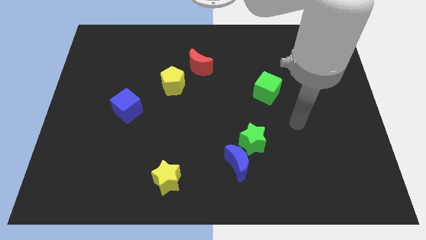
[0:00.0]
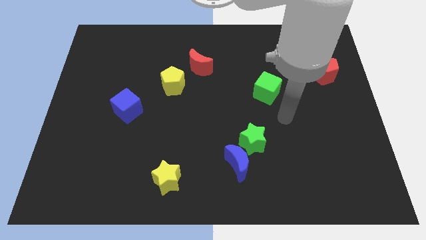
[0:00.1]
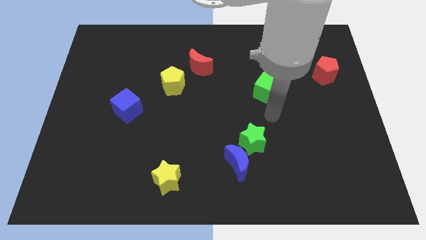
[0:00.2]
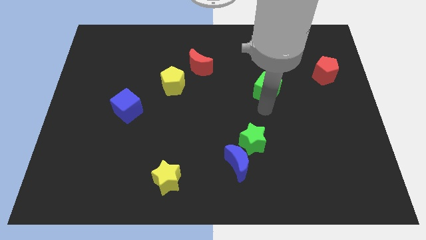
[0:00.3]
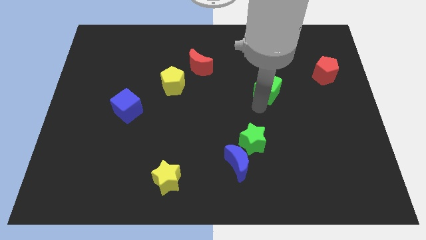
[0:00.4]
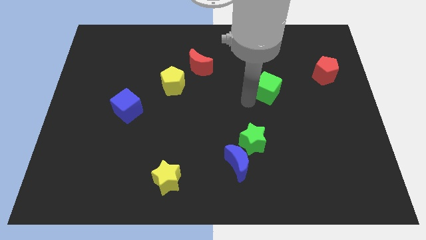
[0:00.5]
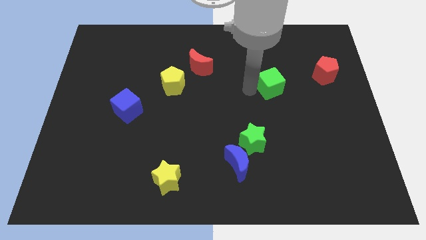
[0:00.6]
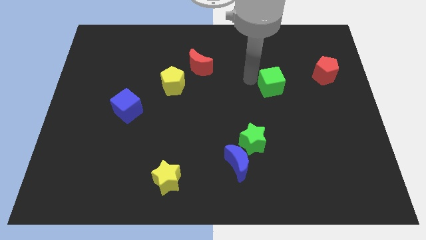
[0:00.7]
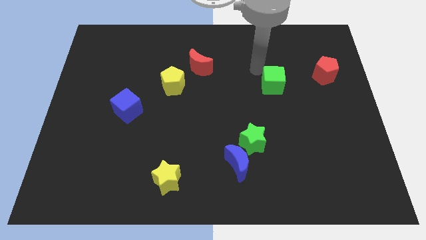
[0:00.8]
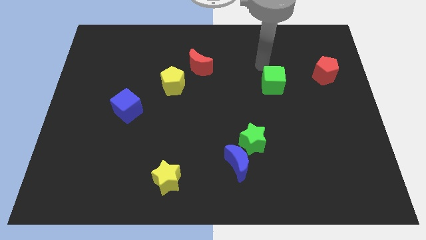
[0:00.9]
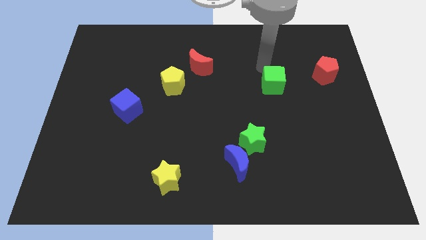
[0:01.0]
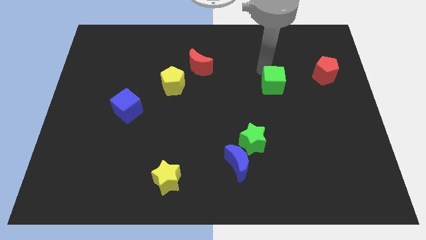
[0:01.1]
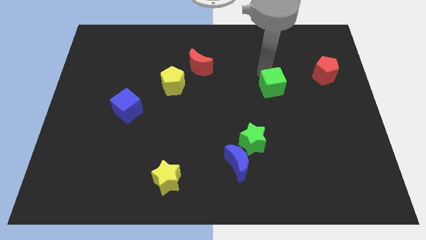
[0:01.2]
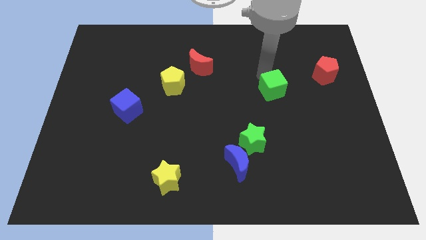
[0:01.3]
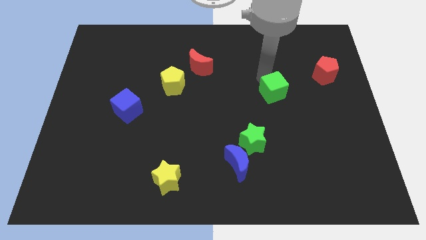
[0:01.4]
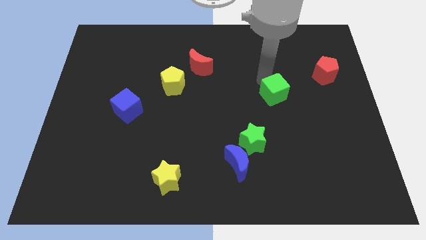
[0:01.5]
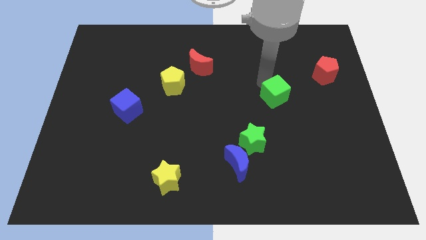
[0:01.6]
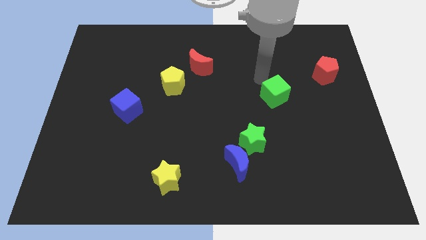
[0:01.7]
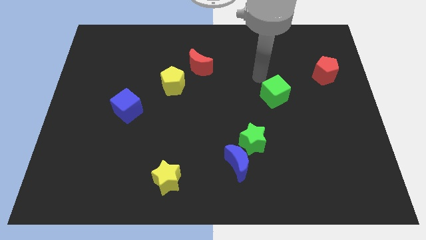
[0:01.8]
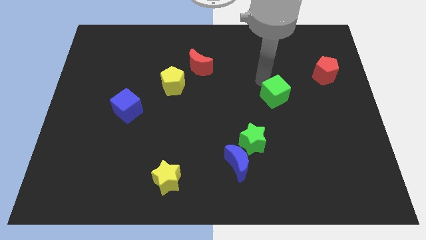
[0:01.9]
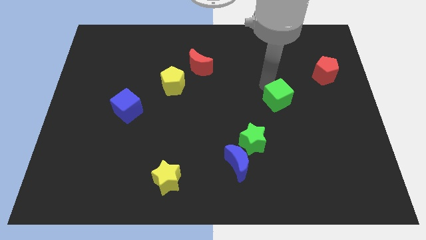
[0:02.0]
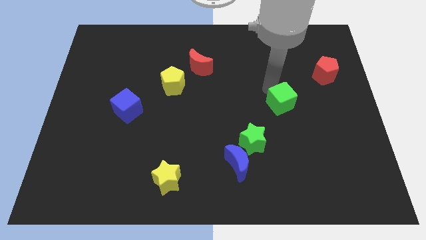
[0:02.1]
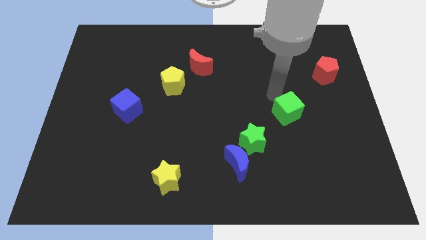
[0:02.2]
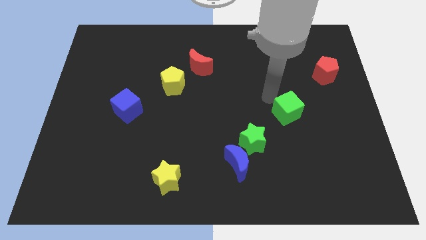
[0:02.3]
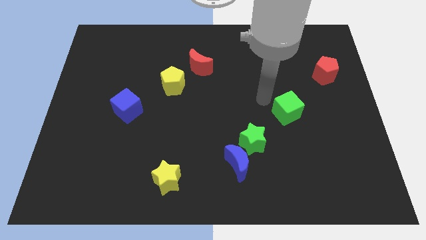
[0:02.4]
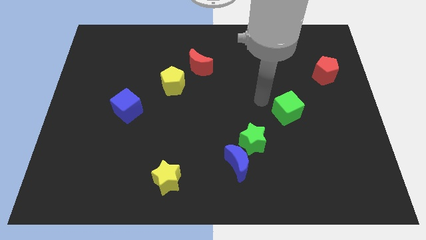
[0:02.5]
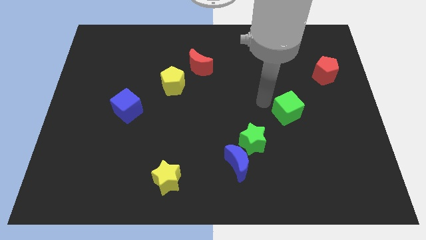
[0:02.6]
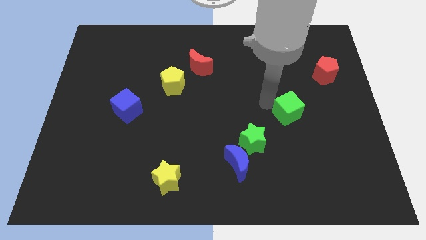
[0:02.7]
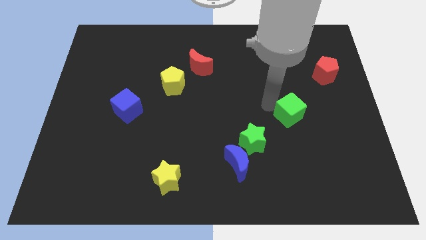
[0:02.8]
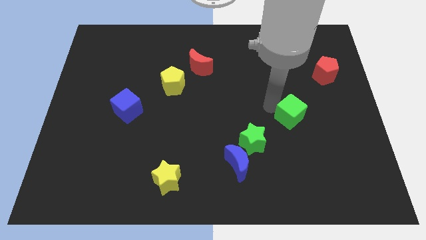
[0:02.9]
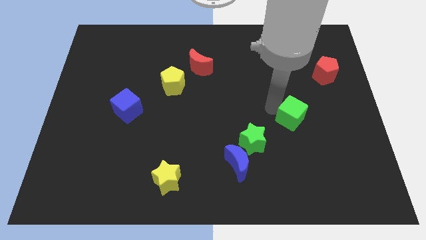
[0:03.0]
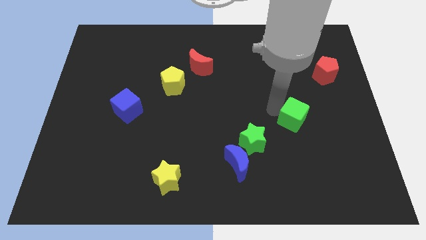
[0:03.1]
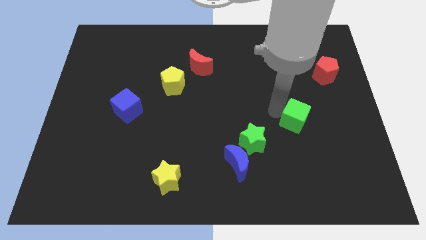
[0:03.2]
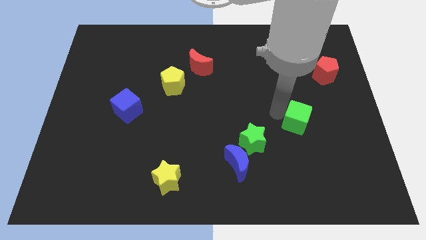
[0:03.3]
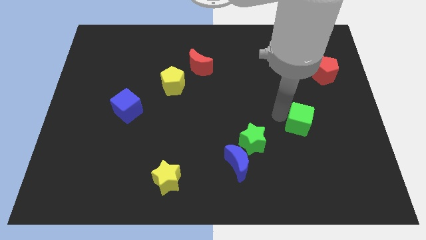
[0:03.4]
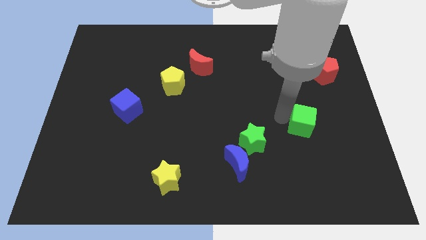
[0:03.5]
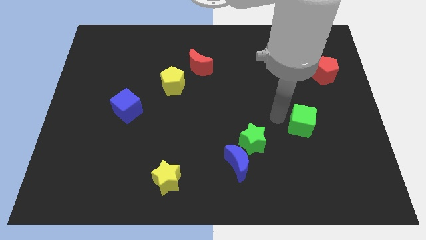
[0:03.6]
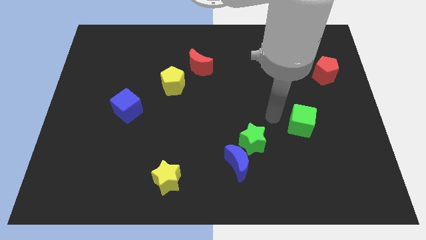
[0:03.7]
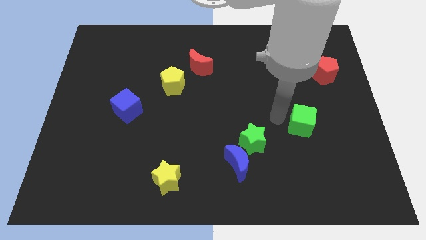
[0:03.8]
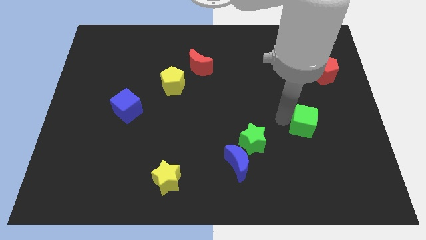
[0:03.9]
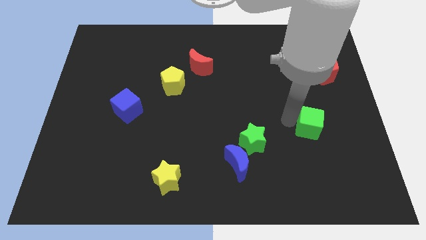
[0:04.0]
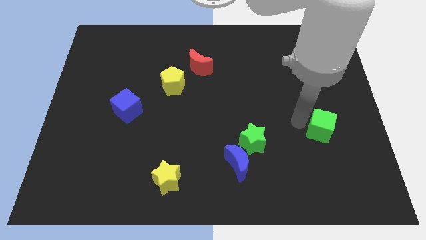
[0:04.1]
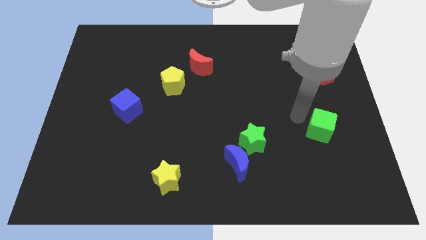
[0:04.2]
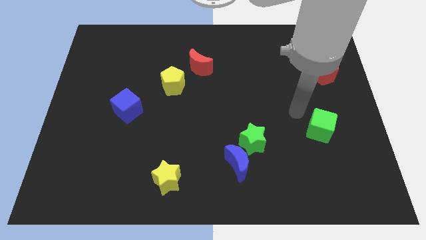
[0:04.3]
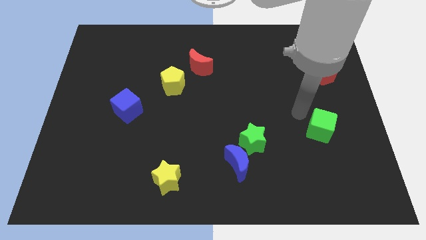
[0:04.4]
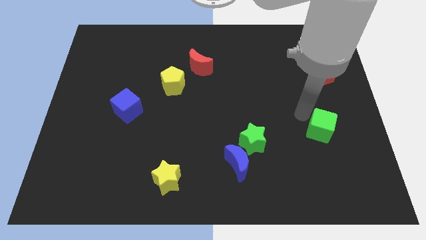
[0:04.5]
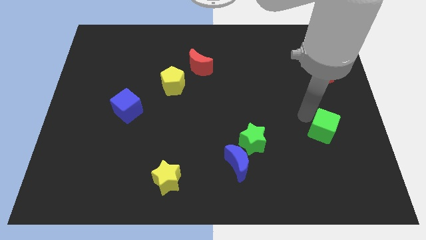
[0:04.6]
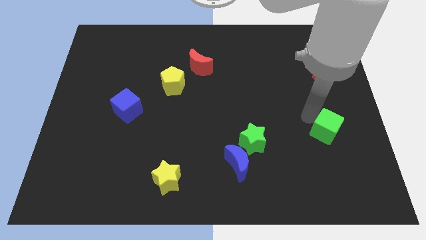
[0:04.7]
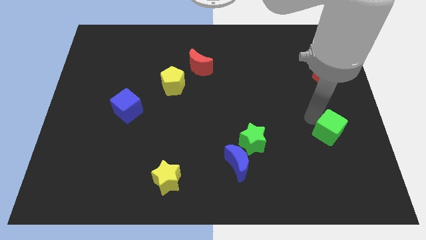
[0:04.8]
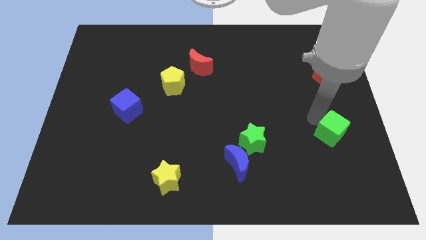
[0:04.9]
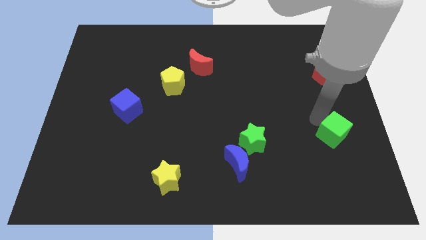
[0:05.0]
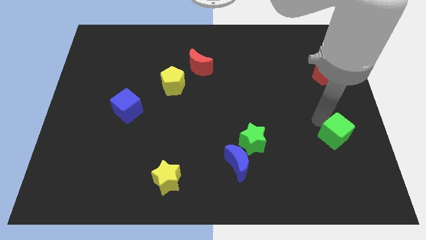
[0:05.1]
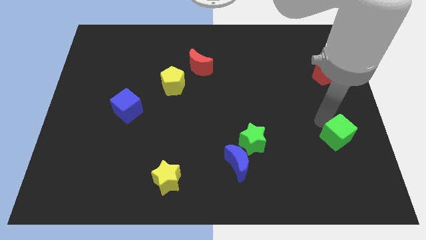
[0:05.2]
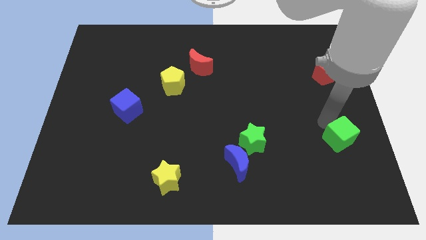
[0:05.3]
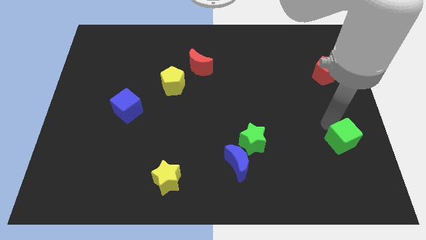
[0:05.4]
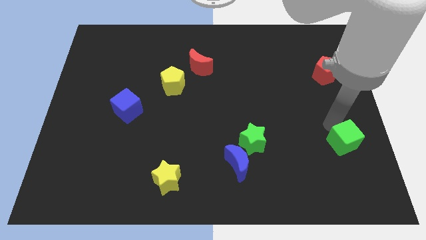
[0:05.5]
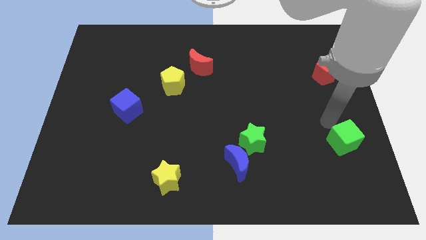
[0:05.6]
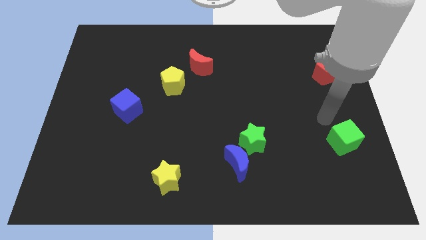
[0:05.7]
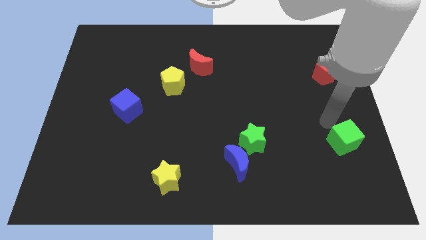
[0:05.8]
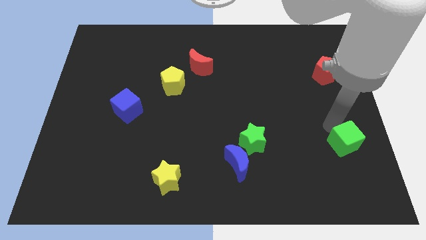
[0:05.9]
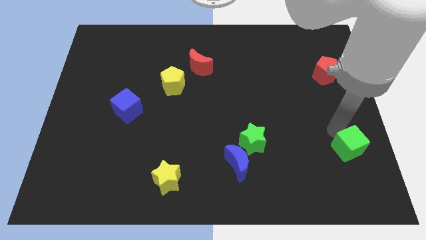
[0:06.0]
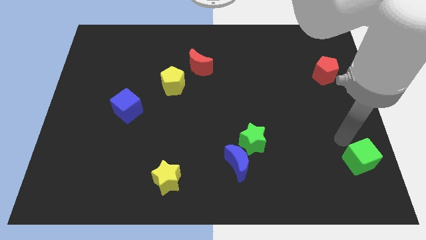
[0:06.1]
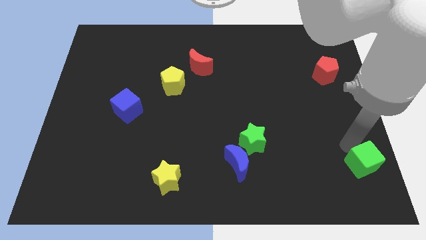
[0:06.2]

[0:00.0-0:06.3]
push the green cube to the bottom right of the board
